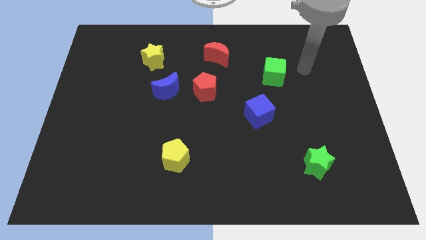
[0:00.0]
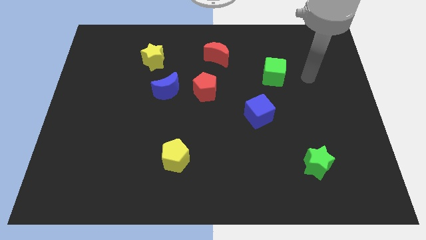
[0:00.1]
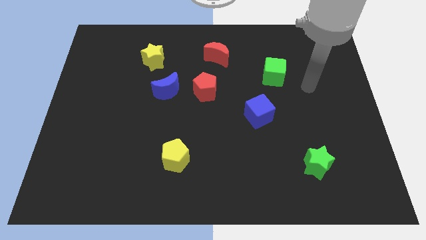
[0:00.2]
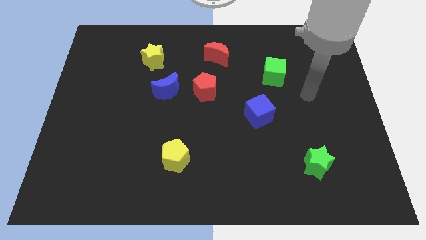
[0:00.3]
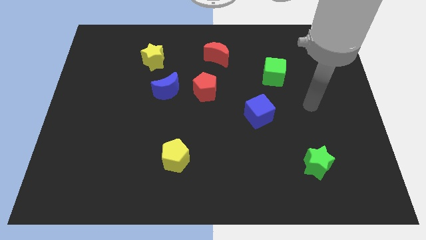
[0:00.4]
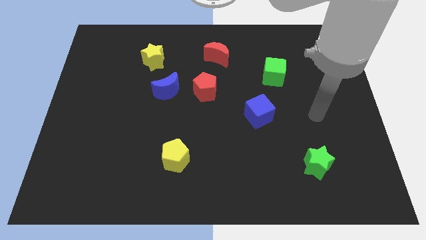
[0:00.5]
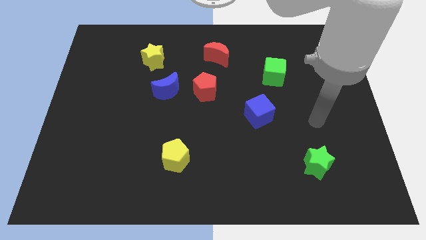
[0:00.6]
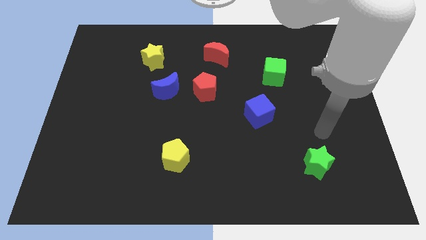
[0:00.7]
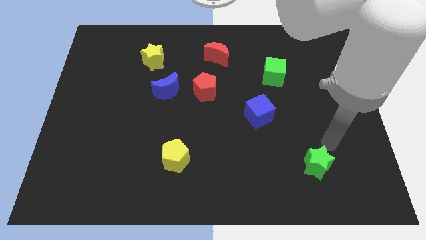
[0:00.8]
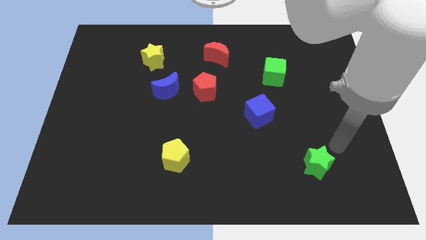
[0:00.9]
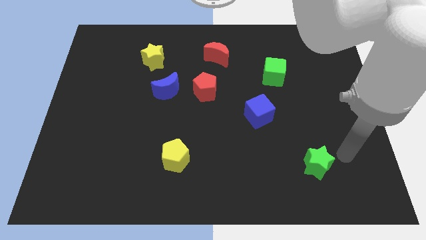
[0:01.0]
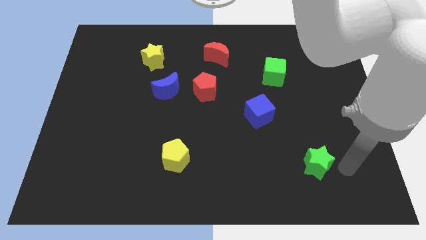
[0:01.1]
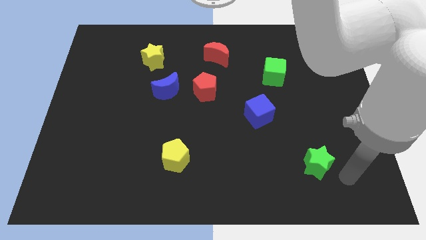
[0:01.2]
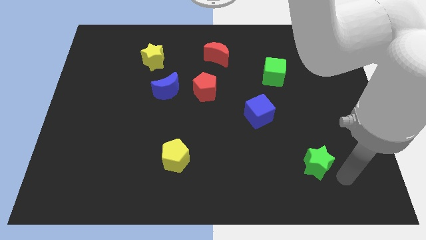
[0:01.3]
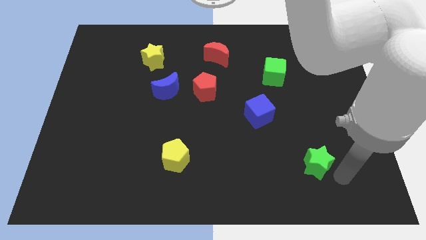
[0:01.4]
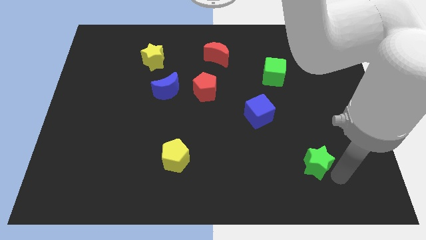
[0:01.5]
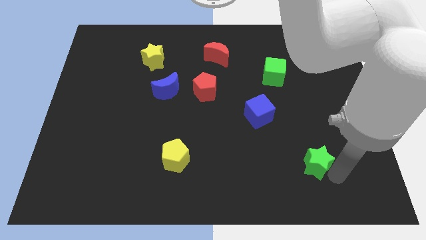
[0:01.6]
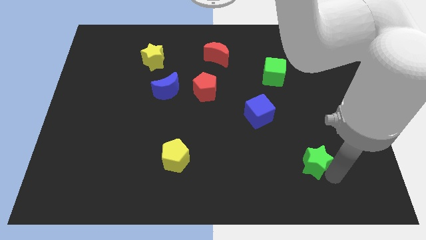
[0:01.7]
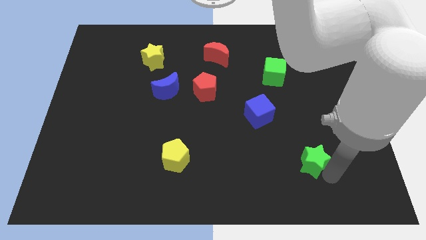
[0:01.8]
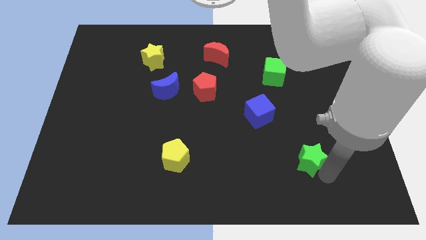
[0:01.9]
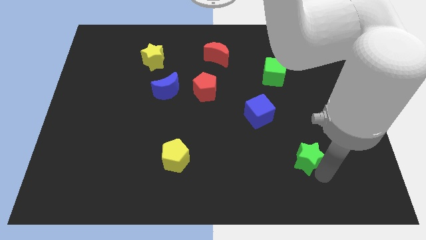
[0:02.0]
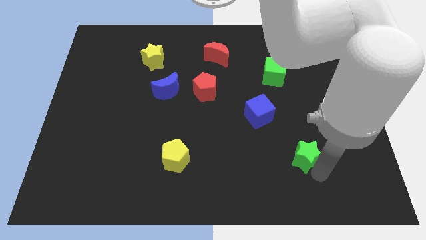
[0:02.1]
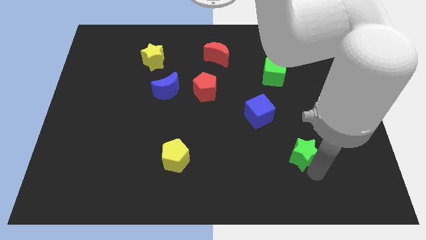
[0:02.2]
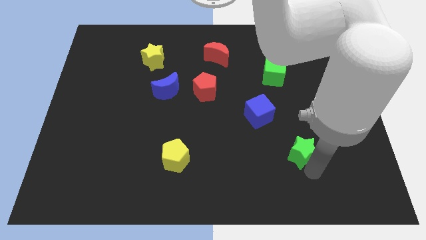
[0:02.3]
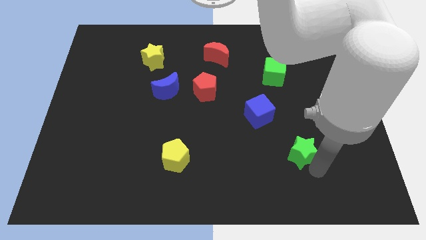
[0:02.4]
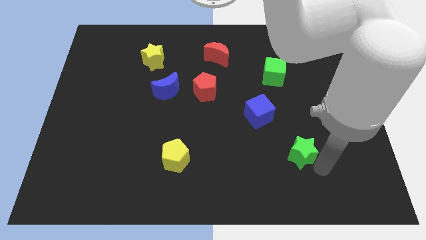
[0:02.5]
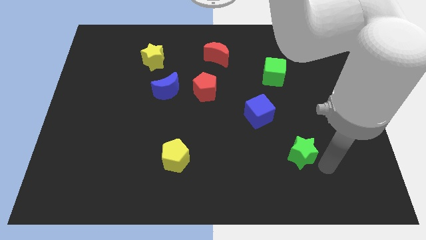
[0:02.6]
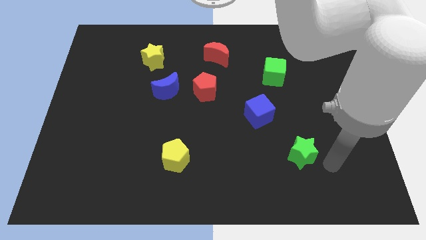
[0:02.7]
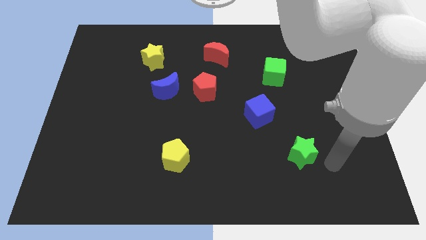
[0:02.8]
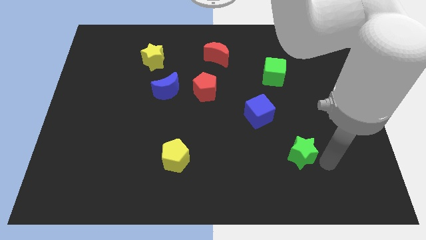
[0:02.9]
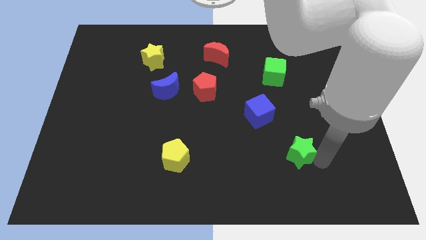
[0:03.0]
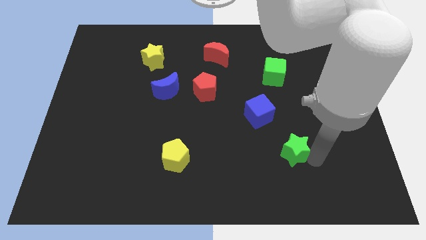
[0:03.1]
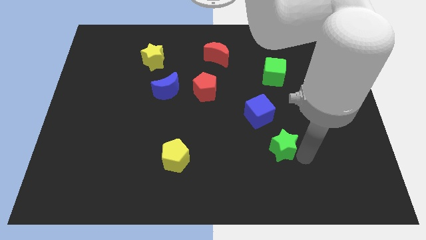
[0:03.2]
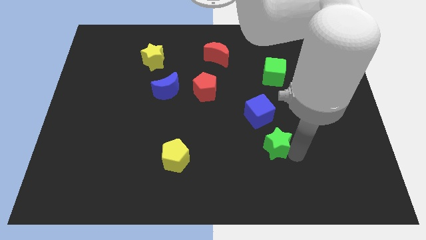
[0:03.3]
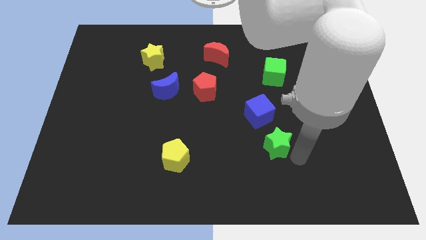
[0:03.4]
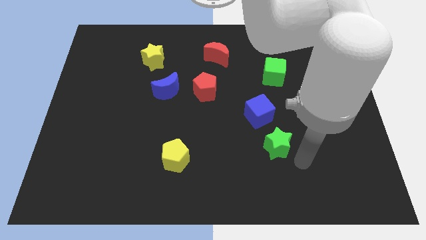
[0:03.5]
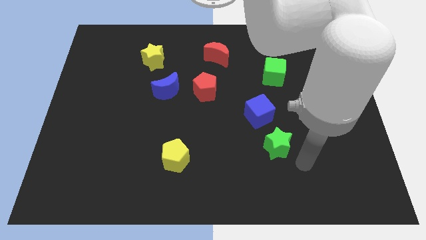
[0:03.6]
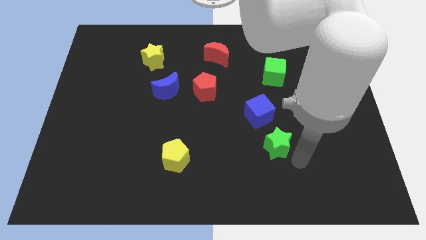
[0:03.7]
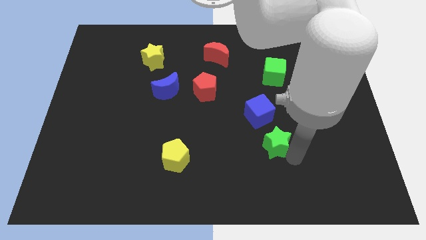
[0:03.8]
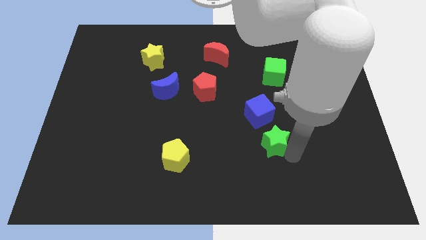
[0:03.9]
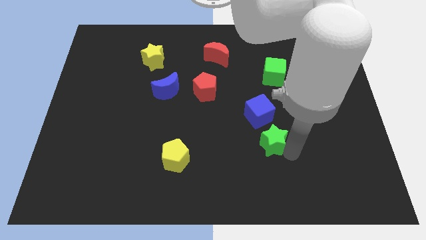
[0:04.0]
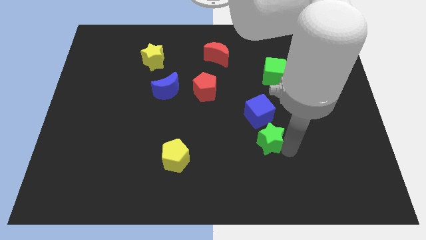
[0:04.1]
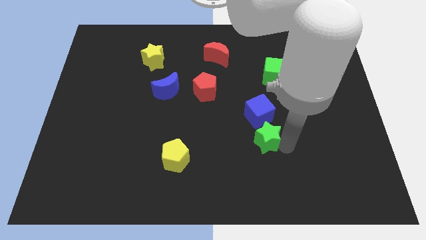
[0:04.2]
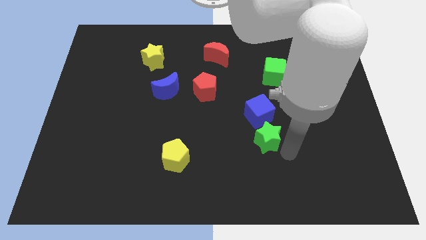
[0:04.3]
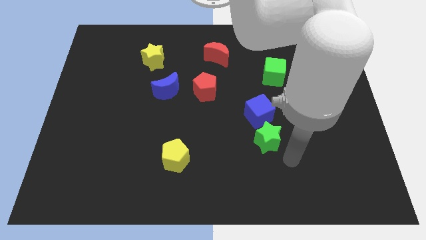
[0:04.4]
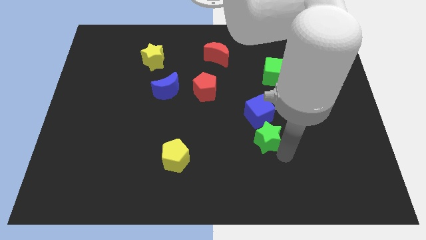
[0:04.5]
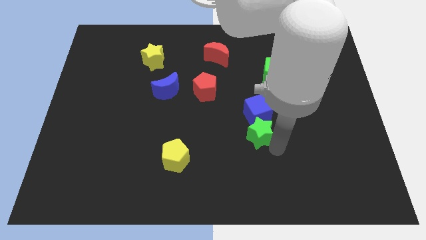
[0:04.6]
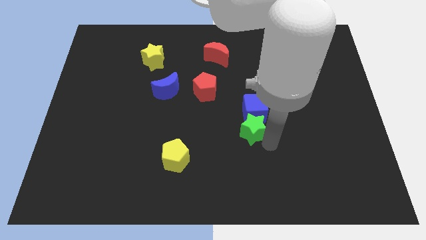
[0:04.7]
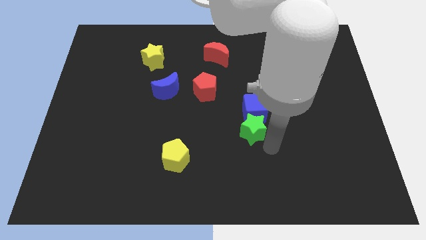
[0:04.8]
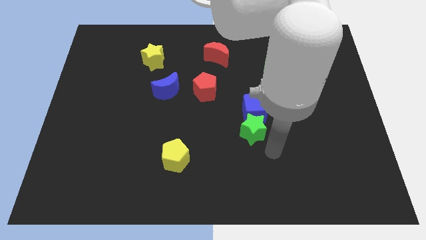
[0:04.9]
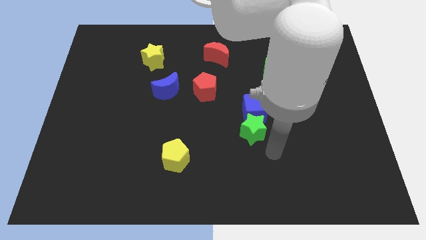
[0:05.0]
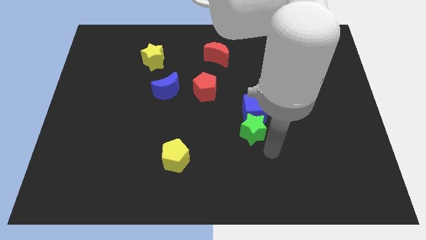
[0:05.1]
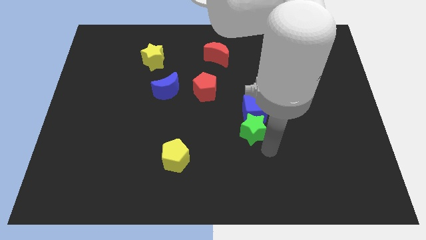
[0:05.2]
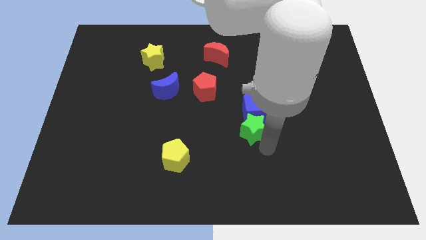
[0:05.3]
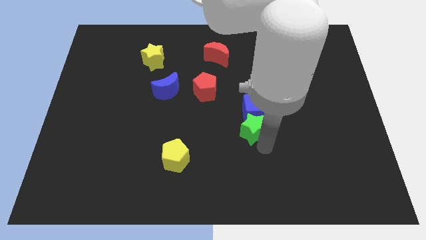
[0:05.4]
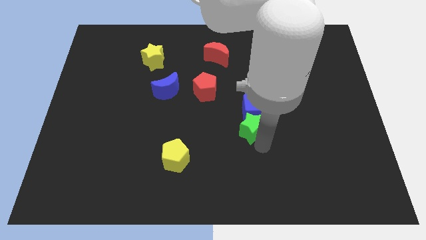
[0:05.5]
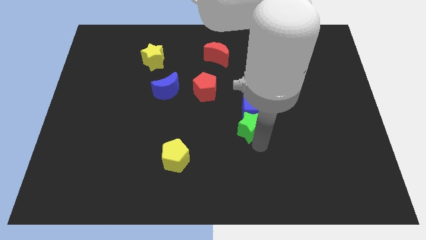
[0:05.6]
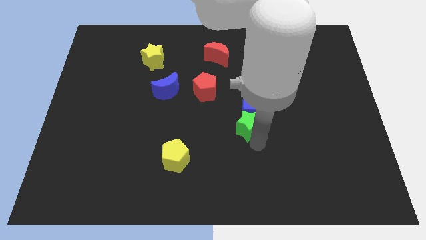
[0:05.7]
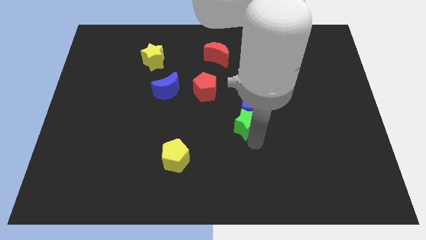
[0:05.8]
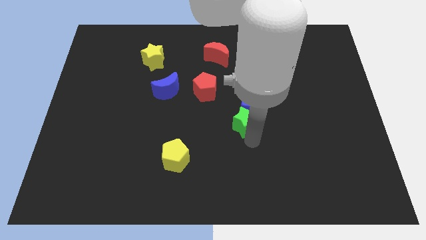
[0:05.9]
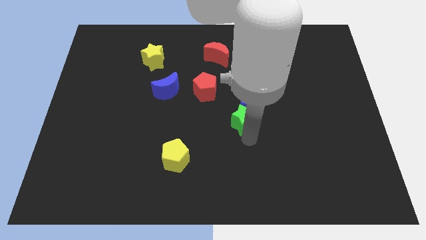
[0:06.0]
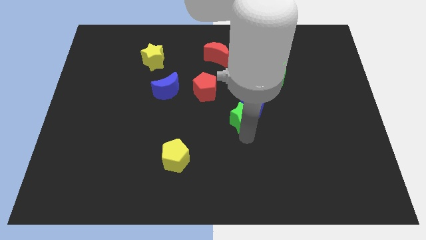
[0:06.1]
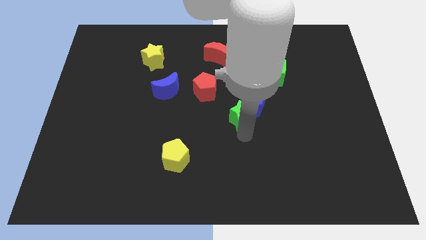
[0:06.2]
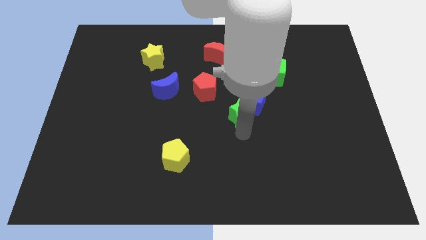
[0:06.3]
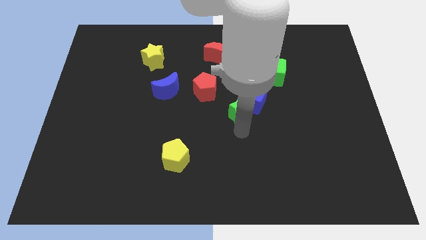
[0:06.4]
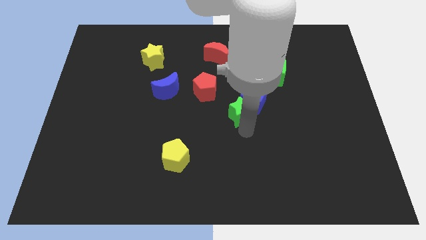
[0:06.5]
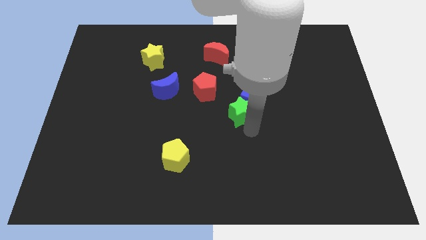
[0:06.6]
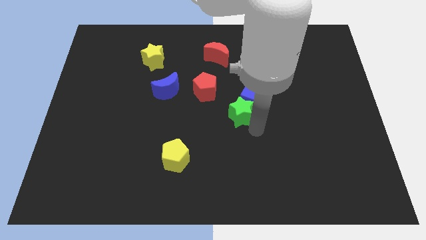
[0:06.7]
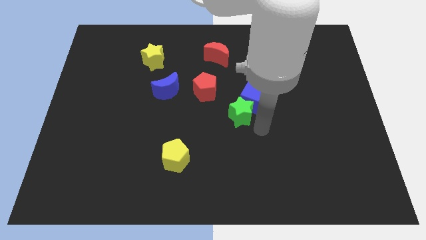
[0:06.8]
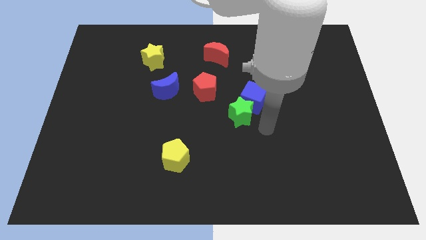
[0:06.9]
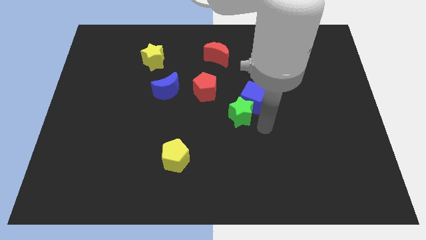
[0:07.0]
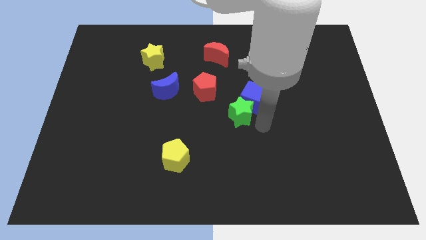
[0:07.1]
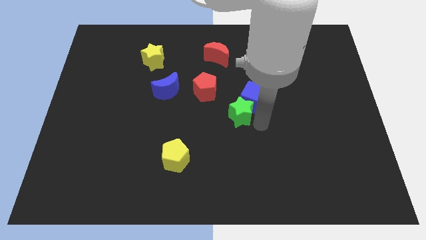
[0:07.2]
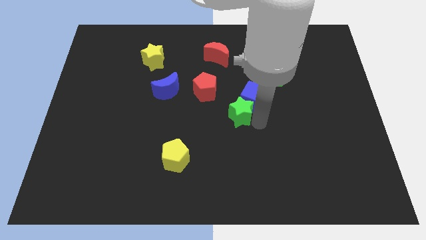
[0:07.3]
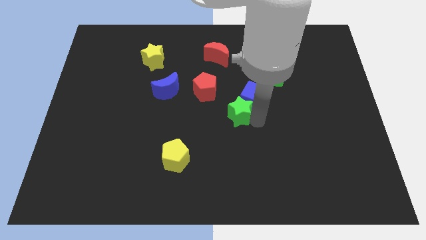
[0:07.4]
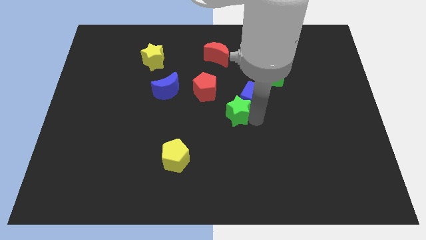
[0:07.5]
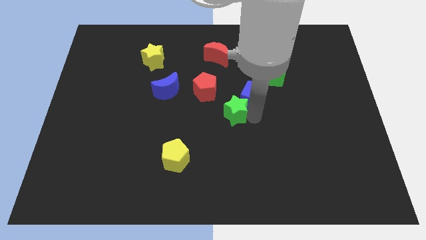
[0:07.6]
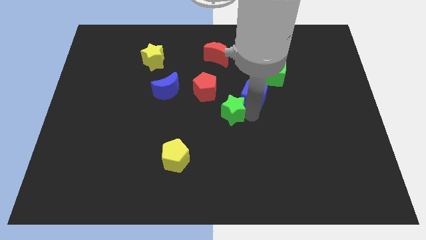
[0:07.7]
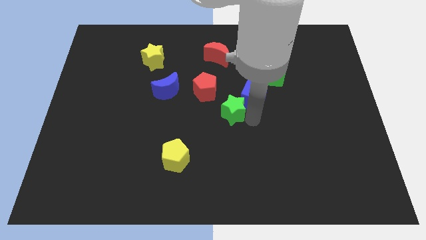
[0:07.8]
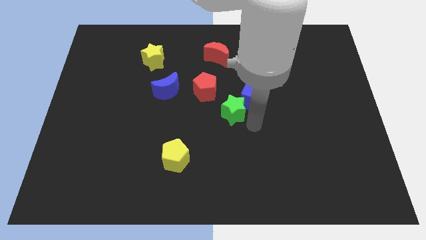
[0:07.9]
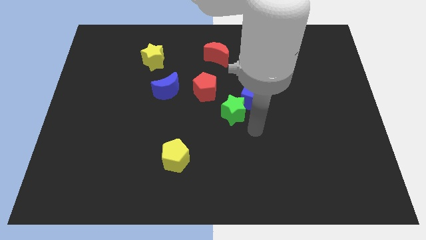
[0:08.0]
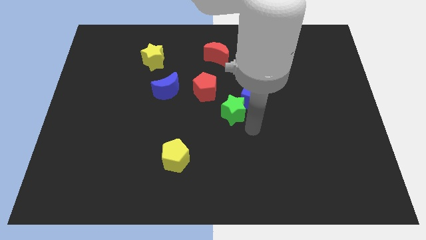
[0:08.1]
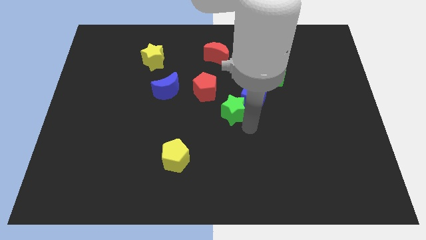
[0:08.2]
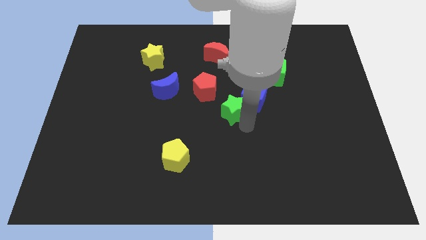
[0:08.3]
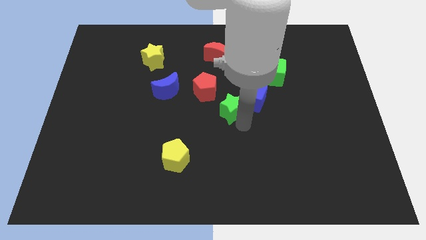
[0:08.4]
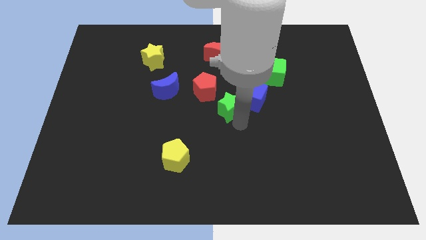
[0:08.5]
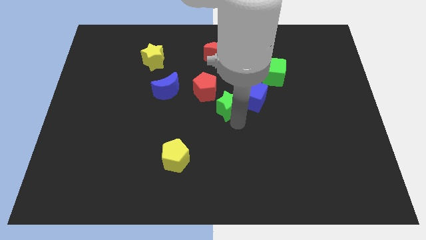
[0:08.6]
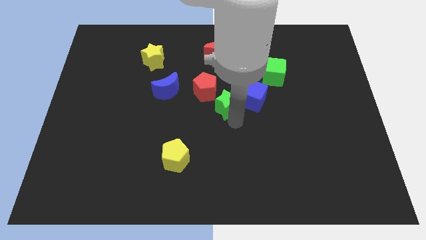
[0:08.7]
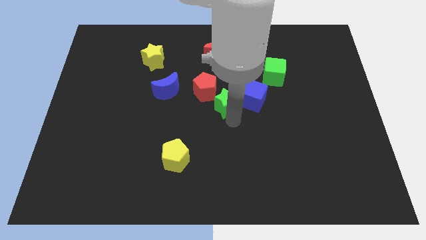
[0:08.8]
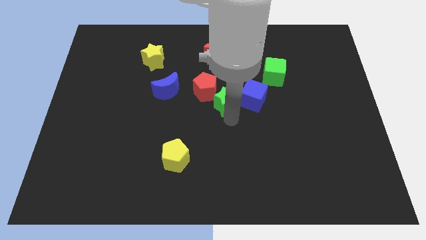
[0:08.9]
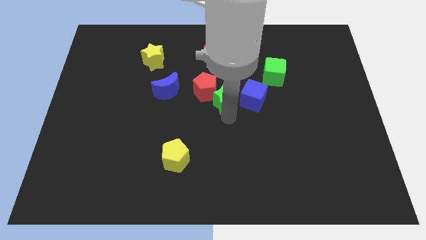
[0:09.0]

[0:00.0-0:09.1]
push the green star towards the red pentagon
